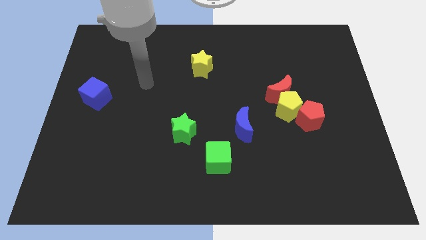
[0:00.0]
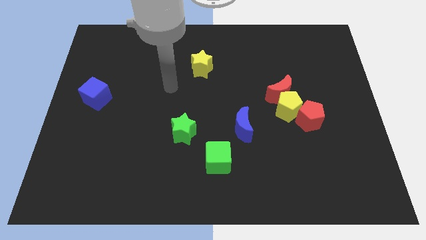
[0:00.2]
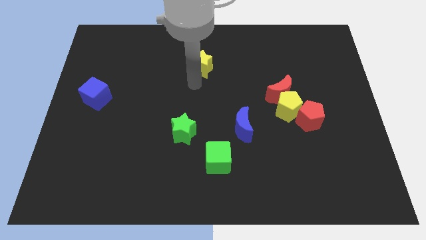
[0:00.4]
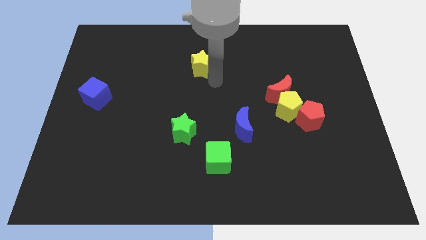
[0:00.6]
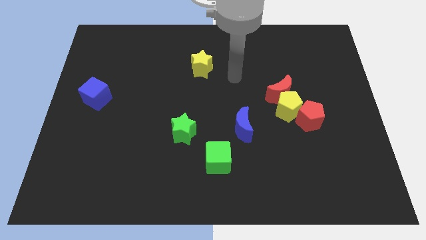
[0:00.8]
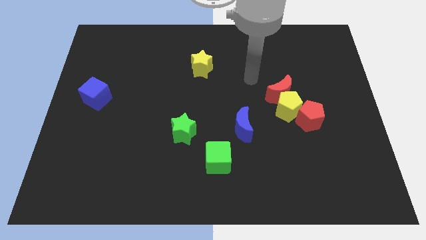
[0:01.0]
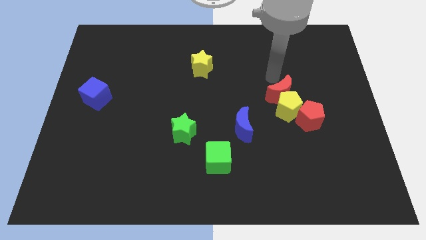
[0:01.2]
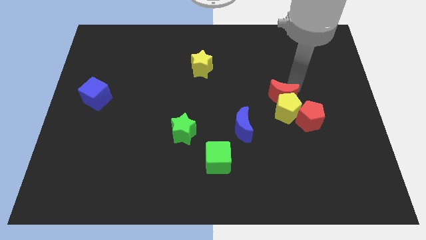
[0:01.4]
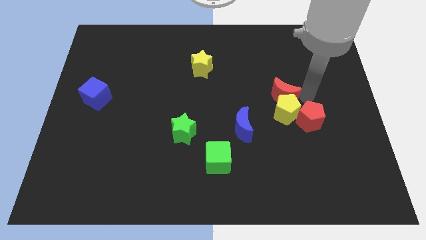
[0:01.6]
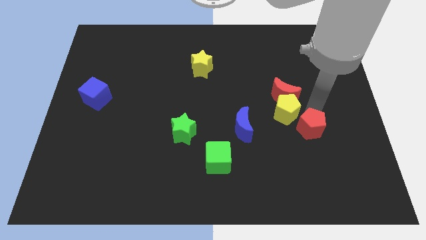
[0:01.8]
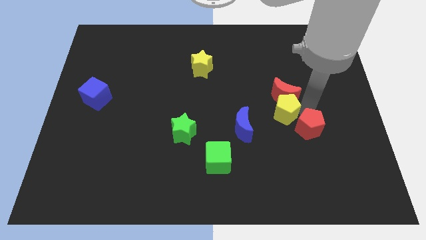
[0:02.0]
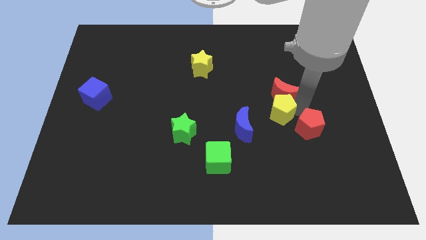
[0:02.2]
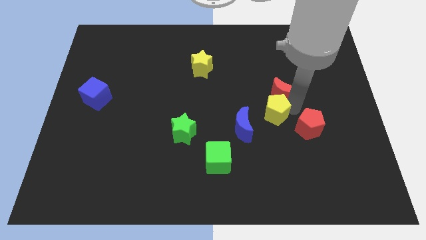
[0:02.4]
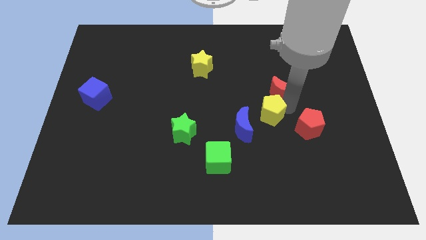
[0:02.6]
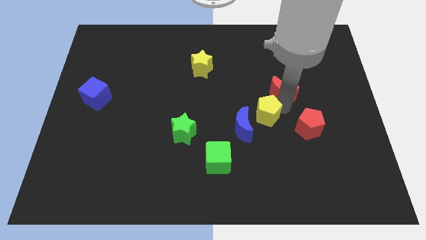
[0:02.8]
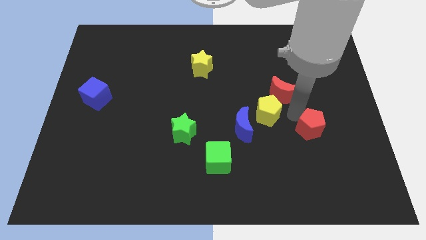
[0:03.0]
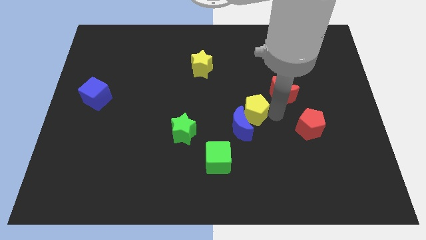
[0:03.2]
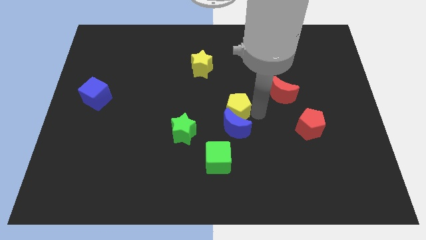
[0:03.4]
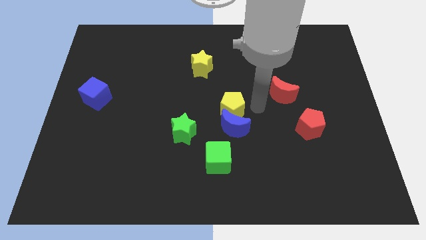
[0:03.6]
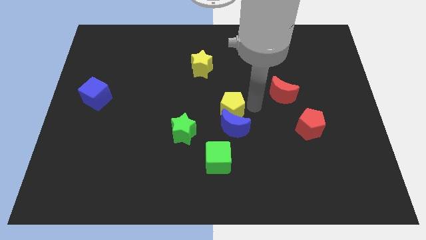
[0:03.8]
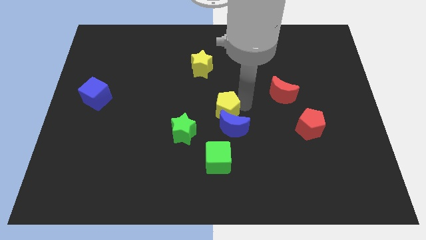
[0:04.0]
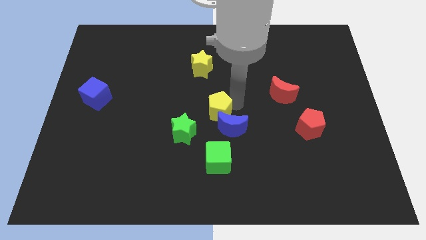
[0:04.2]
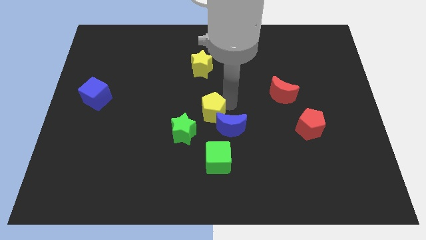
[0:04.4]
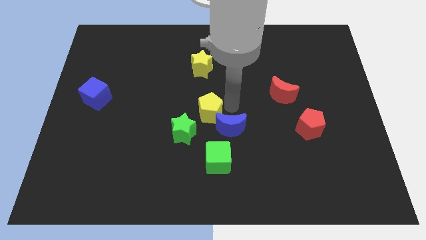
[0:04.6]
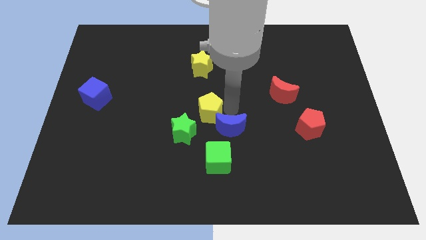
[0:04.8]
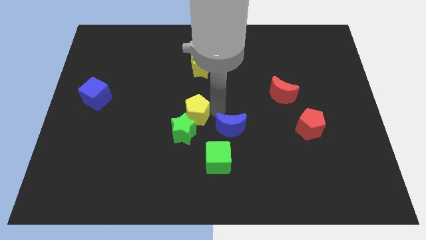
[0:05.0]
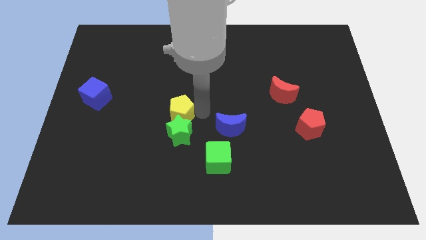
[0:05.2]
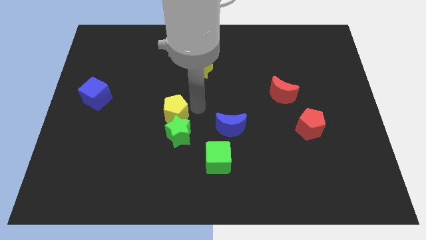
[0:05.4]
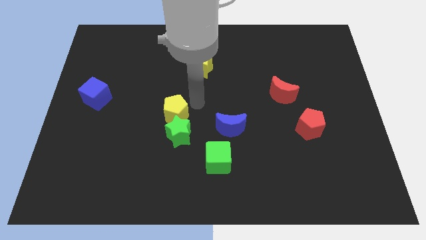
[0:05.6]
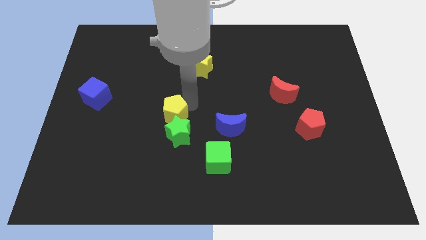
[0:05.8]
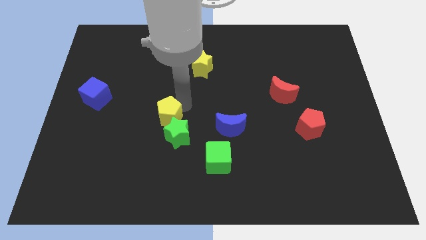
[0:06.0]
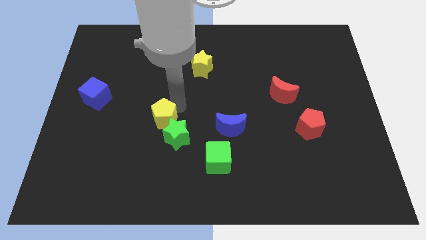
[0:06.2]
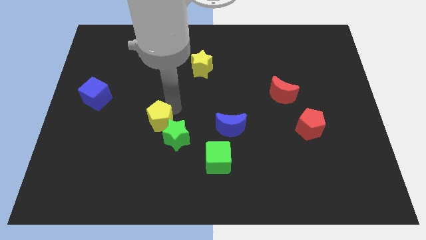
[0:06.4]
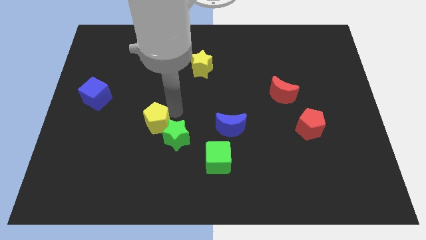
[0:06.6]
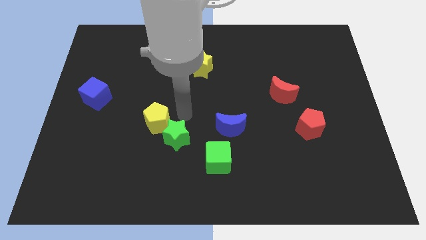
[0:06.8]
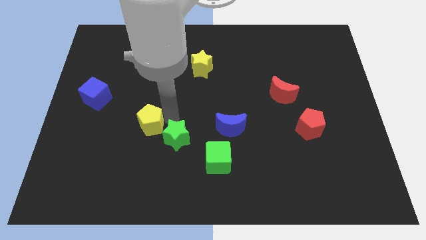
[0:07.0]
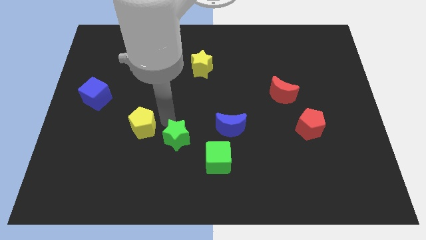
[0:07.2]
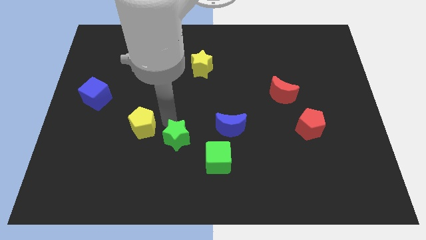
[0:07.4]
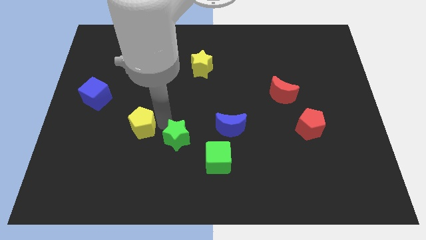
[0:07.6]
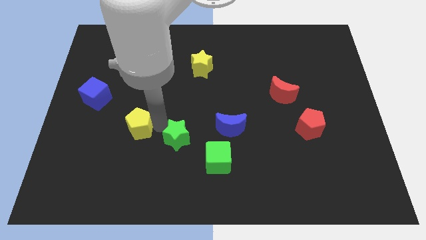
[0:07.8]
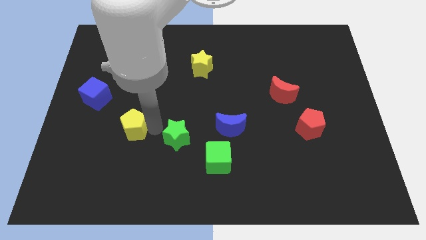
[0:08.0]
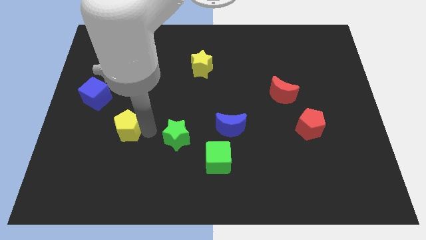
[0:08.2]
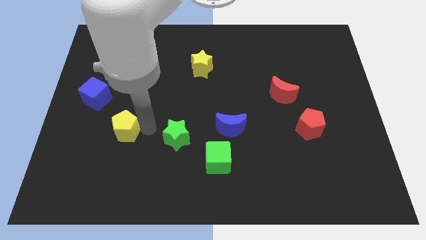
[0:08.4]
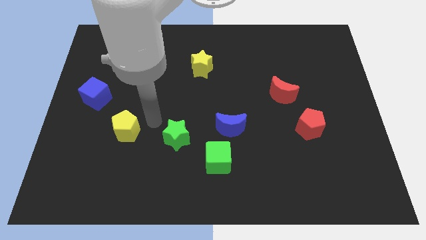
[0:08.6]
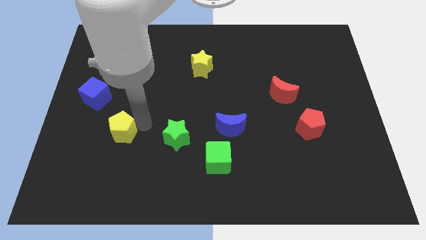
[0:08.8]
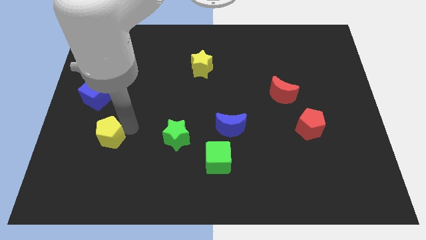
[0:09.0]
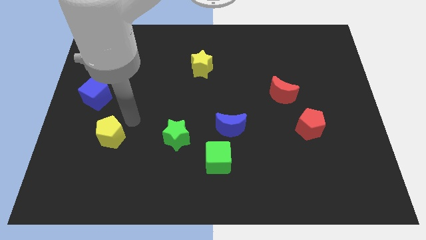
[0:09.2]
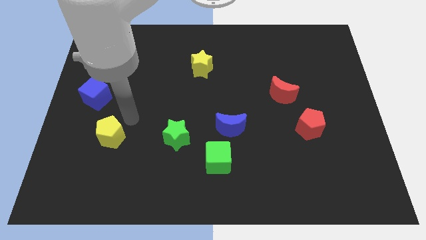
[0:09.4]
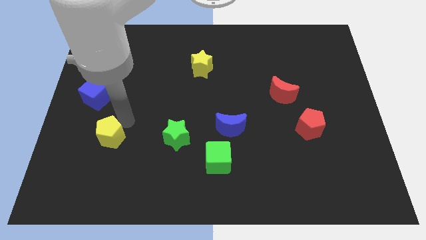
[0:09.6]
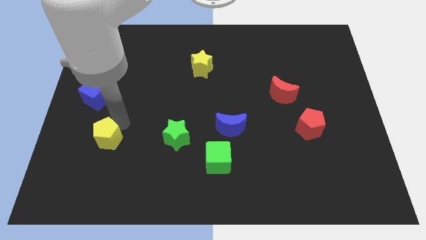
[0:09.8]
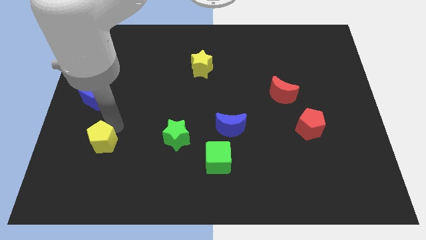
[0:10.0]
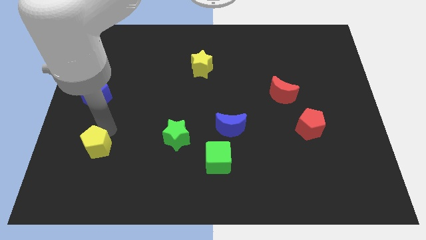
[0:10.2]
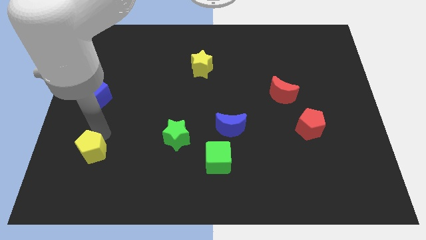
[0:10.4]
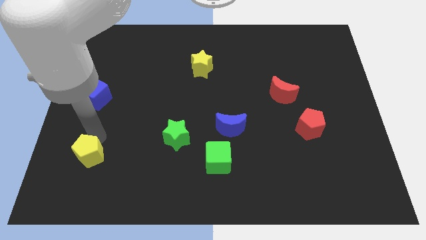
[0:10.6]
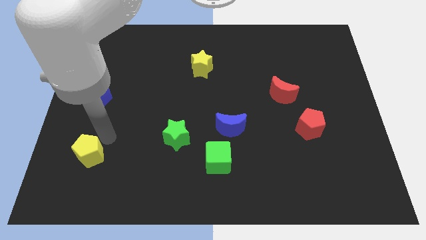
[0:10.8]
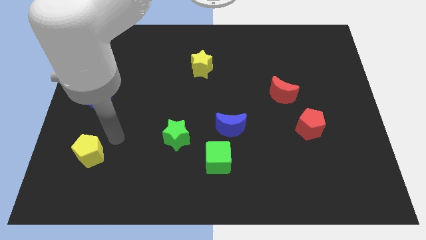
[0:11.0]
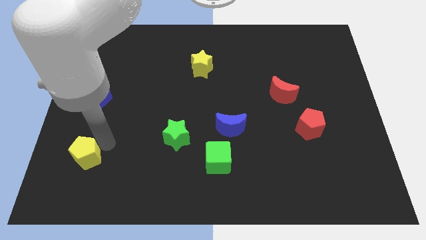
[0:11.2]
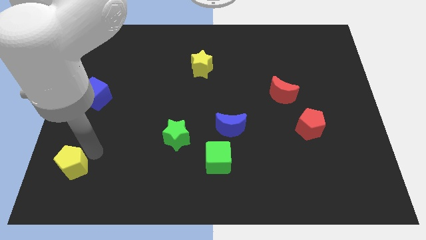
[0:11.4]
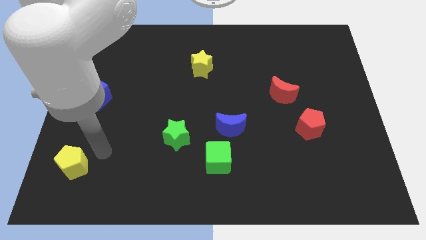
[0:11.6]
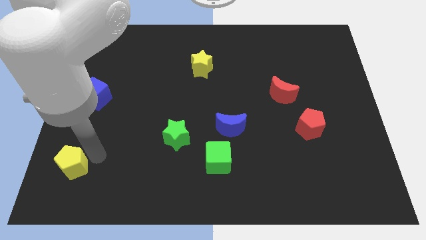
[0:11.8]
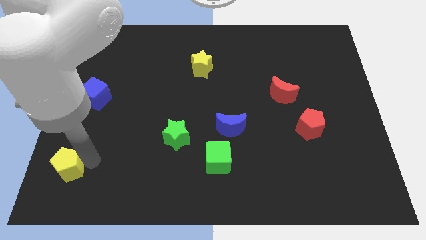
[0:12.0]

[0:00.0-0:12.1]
slide the yellow pentagon to the bottom left corner

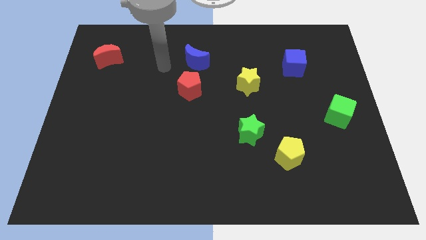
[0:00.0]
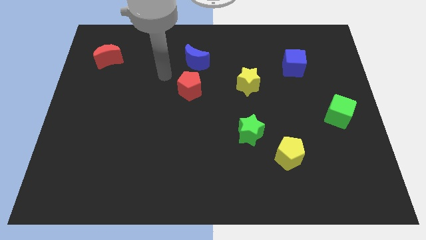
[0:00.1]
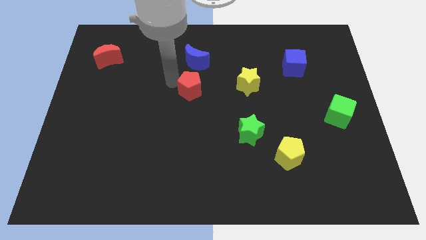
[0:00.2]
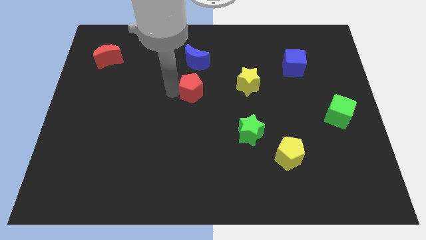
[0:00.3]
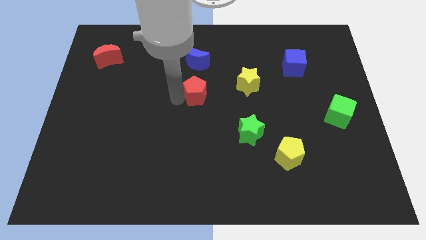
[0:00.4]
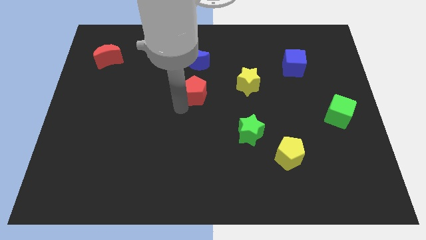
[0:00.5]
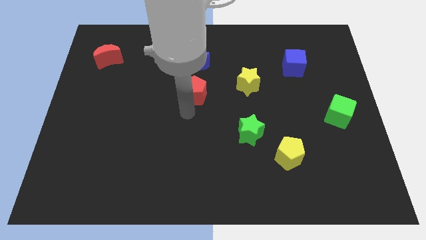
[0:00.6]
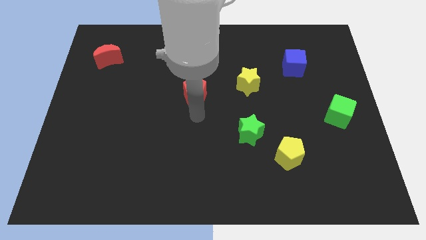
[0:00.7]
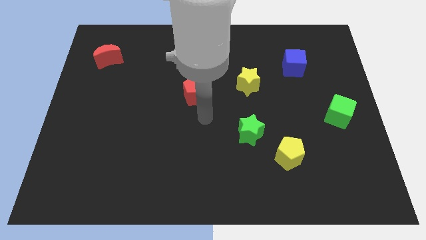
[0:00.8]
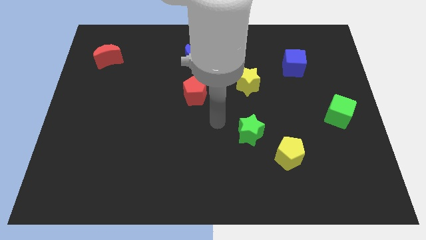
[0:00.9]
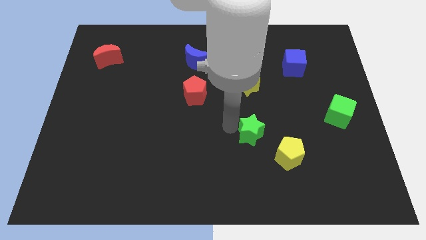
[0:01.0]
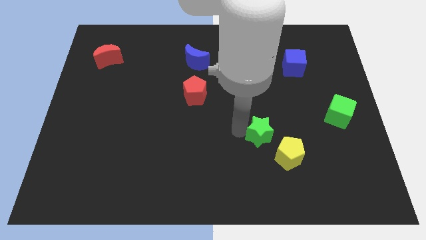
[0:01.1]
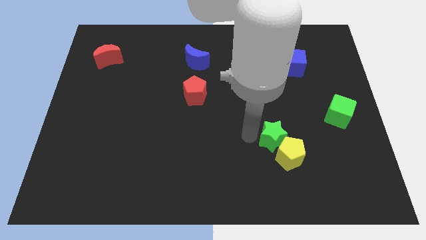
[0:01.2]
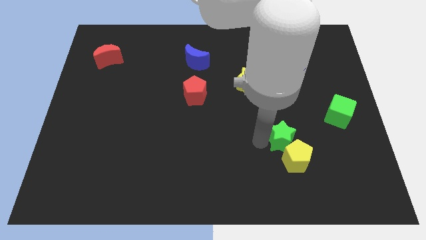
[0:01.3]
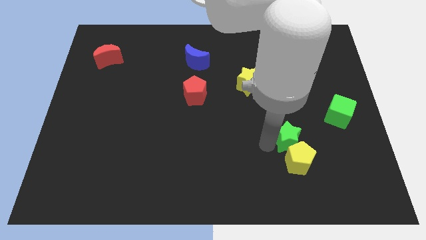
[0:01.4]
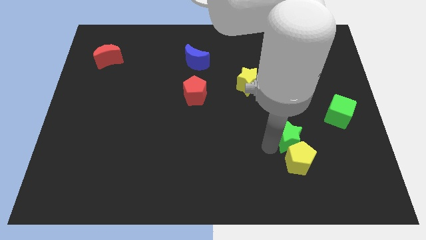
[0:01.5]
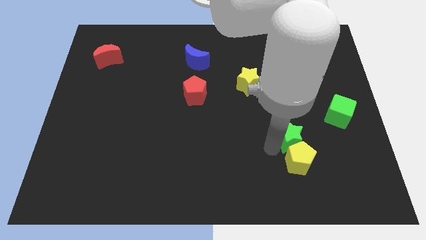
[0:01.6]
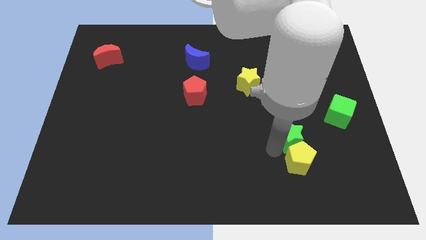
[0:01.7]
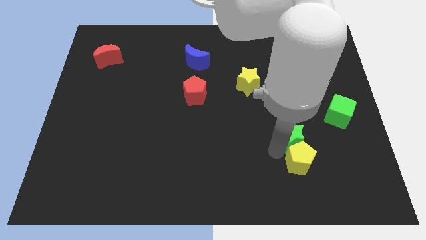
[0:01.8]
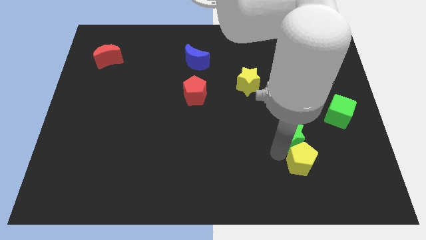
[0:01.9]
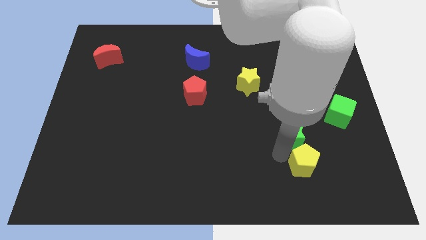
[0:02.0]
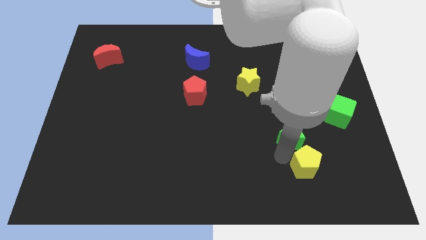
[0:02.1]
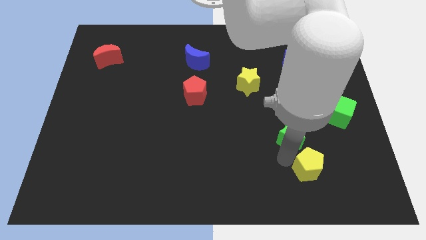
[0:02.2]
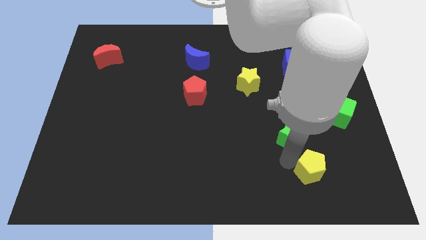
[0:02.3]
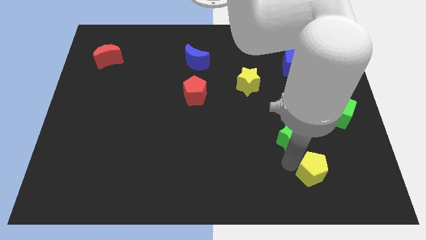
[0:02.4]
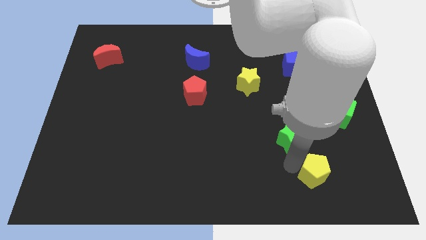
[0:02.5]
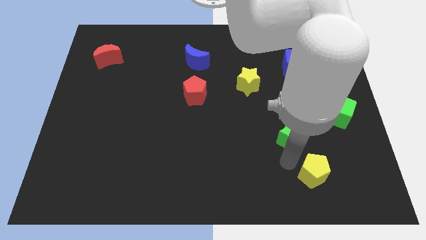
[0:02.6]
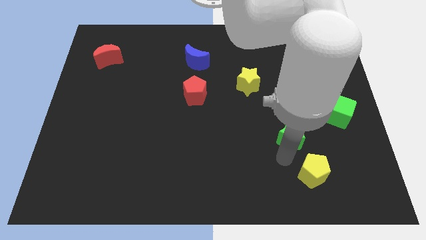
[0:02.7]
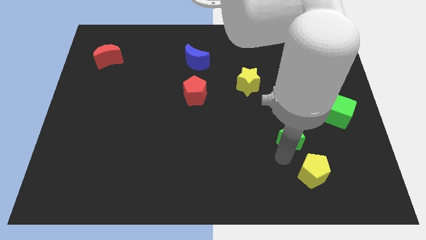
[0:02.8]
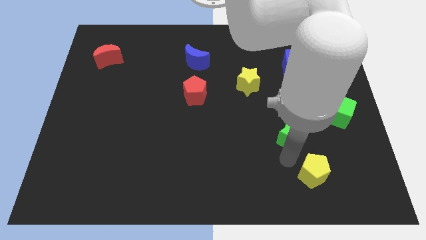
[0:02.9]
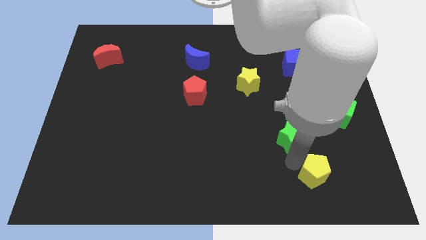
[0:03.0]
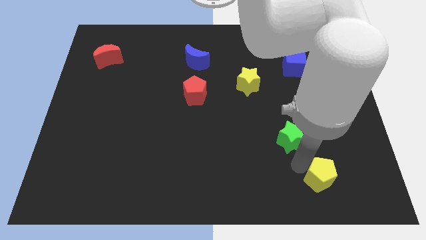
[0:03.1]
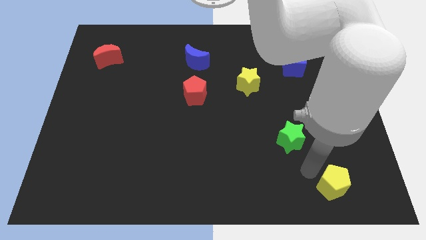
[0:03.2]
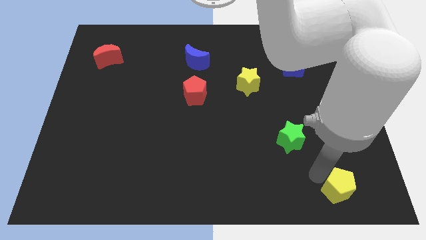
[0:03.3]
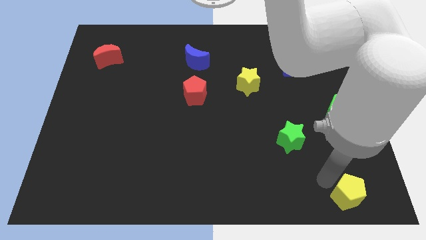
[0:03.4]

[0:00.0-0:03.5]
move the yellow pentagon to the lower right corner
